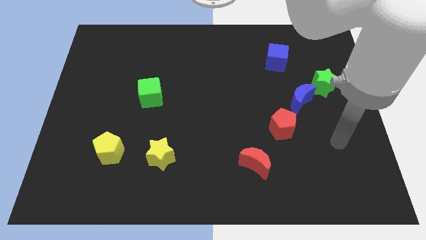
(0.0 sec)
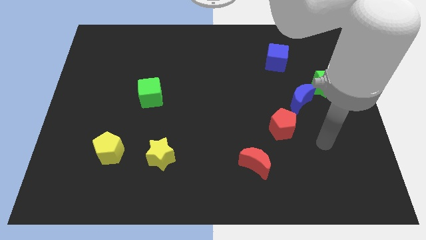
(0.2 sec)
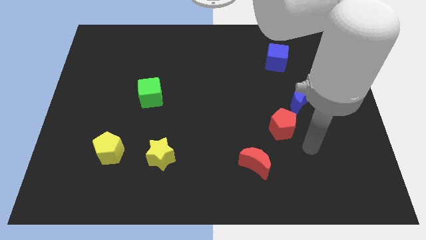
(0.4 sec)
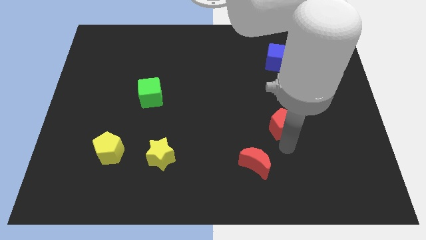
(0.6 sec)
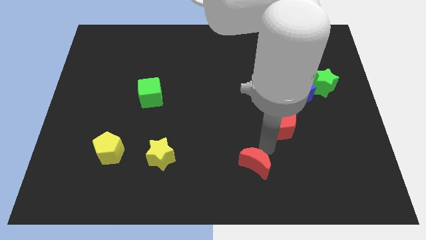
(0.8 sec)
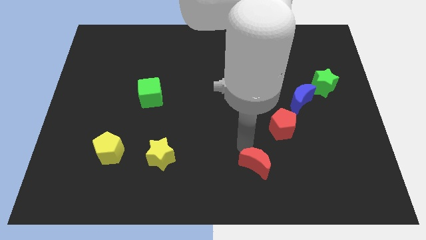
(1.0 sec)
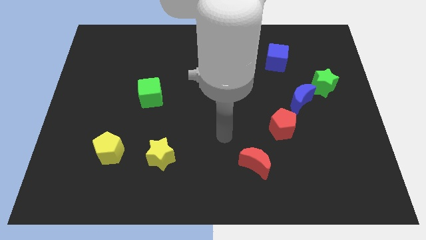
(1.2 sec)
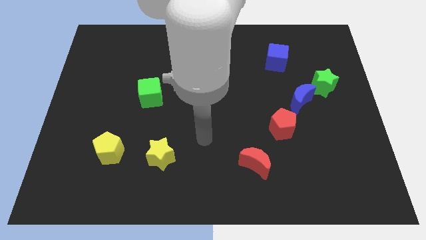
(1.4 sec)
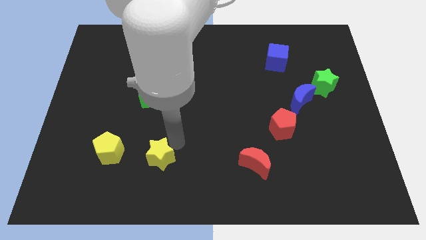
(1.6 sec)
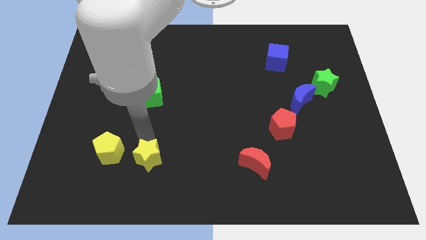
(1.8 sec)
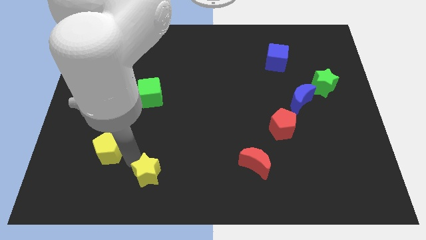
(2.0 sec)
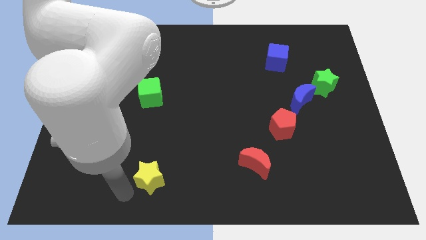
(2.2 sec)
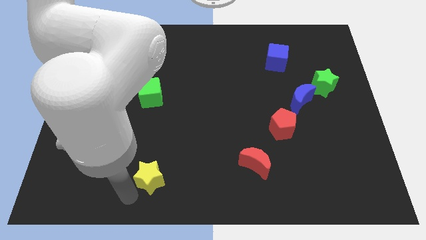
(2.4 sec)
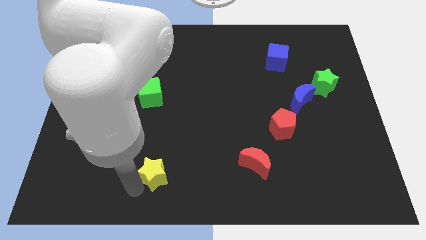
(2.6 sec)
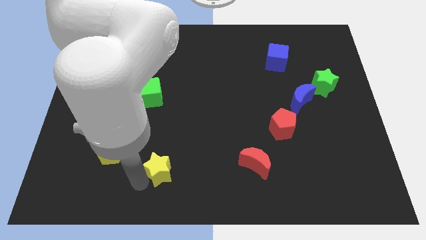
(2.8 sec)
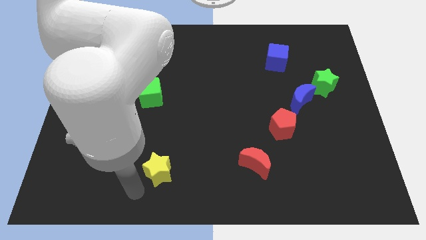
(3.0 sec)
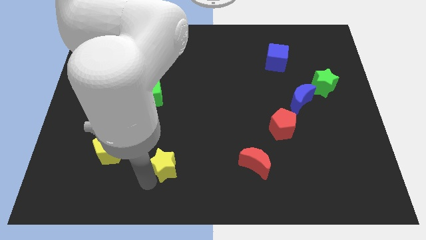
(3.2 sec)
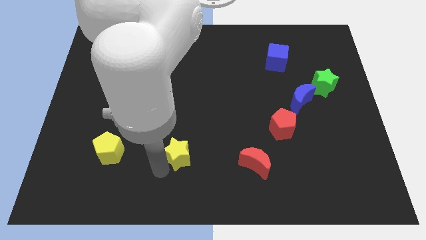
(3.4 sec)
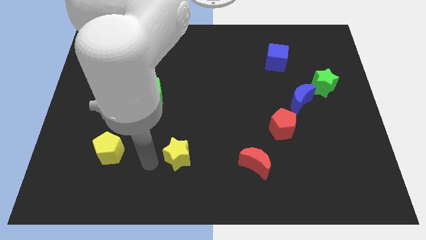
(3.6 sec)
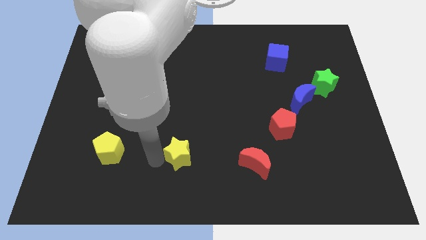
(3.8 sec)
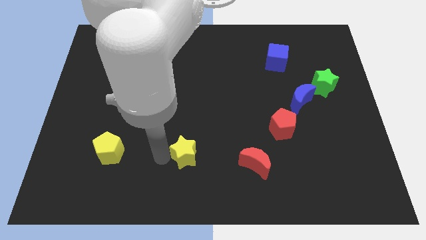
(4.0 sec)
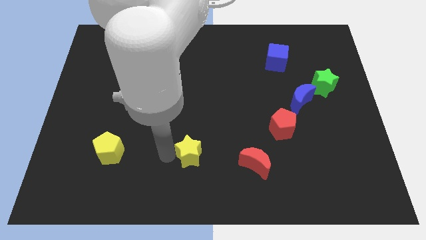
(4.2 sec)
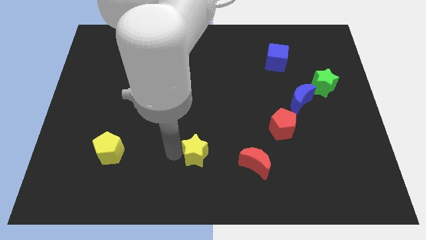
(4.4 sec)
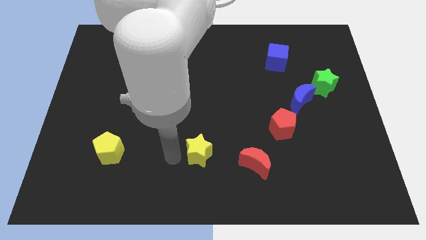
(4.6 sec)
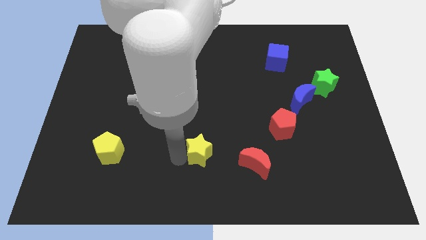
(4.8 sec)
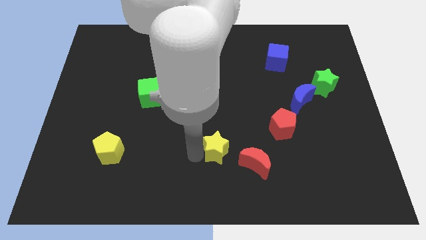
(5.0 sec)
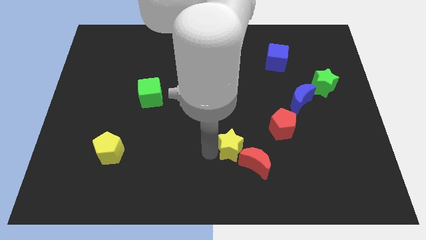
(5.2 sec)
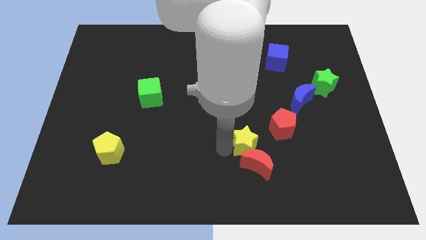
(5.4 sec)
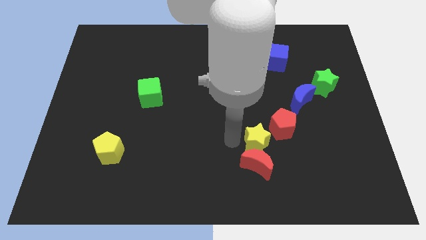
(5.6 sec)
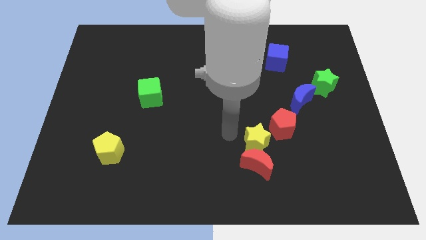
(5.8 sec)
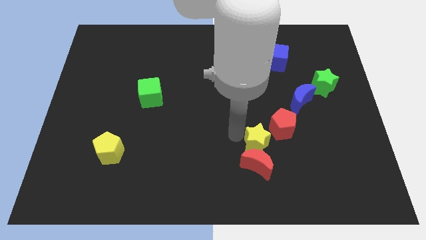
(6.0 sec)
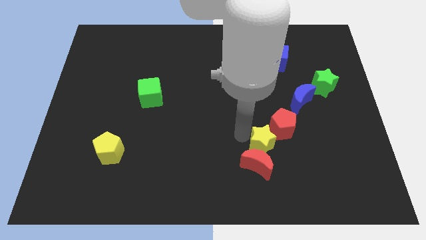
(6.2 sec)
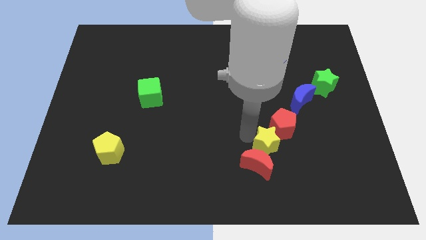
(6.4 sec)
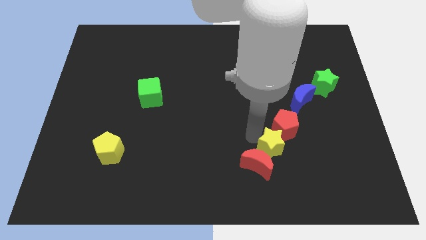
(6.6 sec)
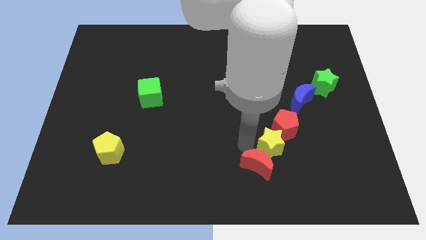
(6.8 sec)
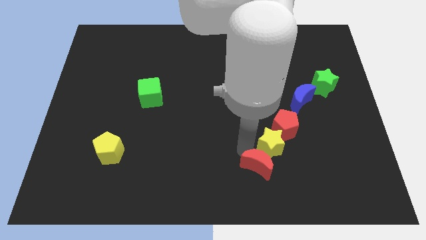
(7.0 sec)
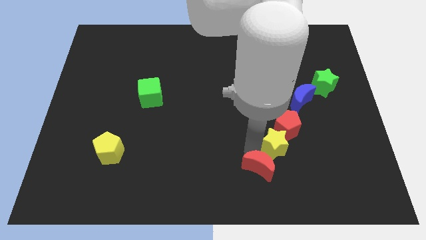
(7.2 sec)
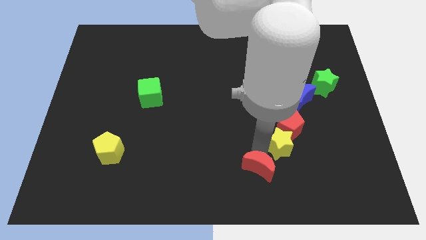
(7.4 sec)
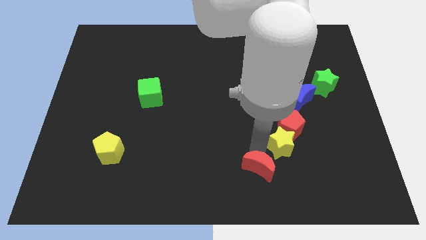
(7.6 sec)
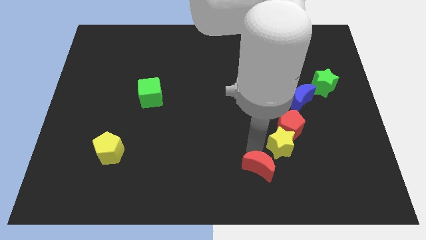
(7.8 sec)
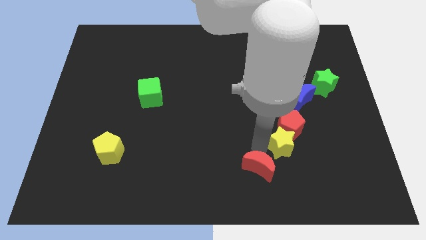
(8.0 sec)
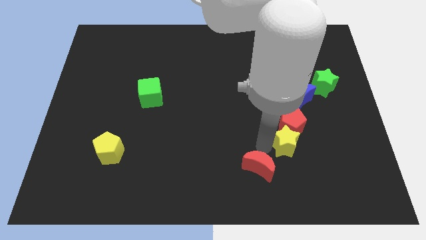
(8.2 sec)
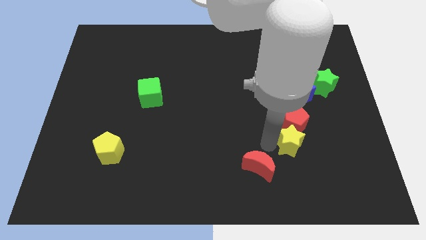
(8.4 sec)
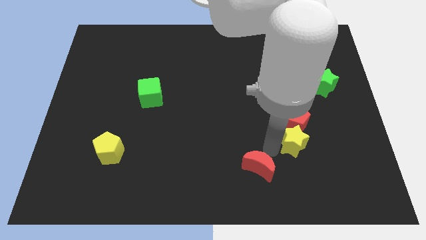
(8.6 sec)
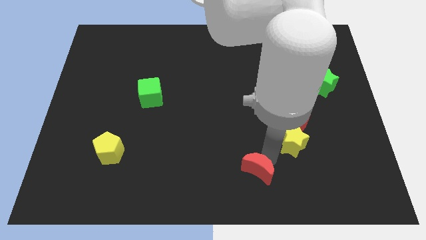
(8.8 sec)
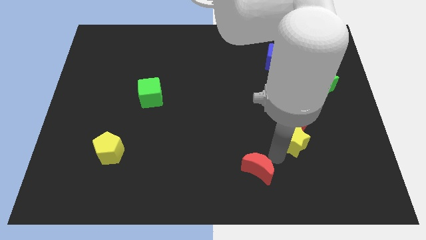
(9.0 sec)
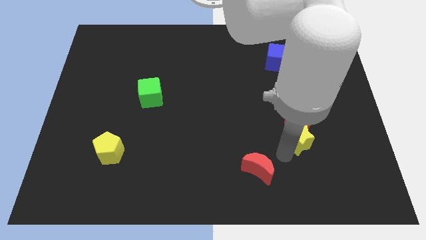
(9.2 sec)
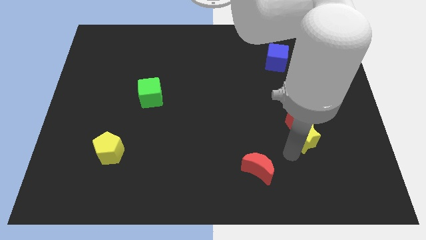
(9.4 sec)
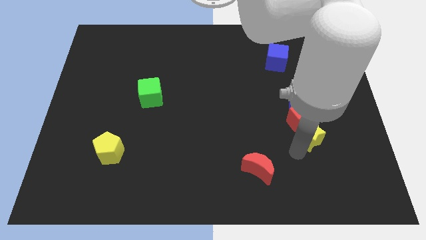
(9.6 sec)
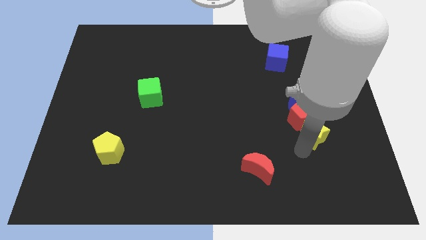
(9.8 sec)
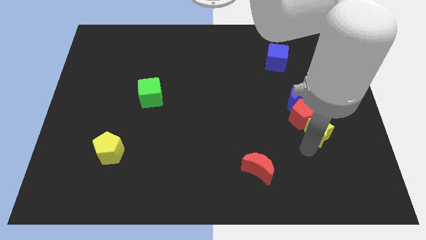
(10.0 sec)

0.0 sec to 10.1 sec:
slide the yellow star to the bottom of the green star

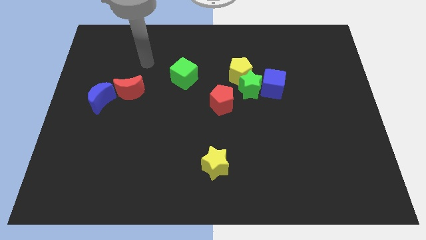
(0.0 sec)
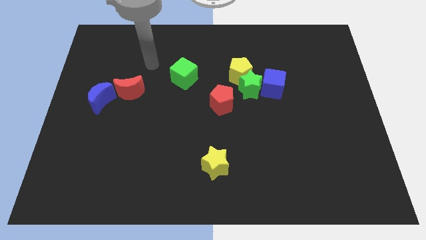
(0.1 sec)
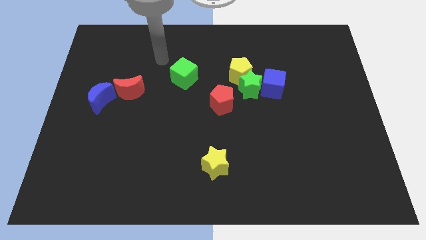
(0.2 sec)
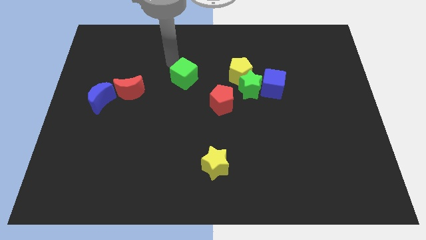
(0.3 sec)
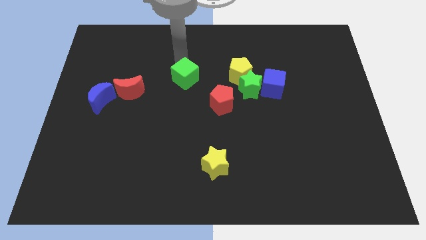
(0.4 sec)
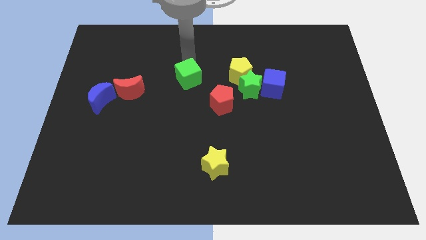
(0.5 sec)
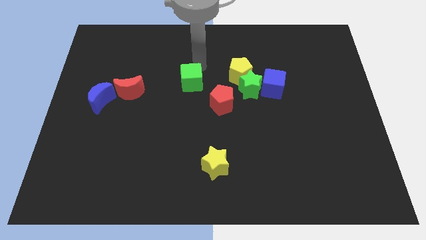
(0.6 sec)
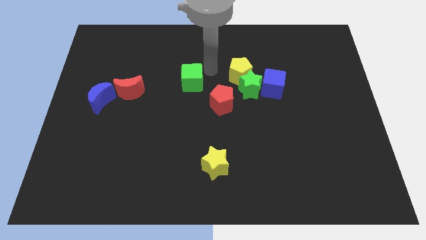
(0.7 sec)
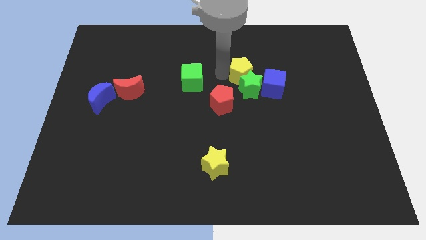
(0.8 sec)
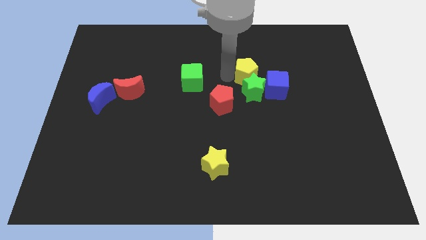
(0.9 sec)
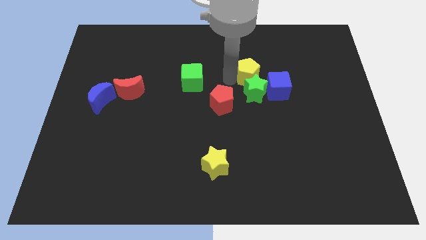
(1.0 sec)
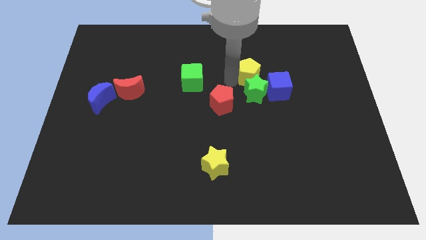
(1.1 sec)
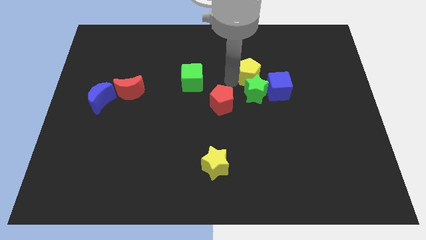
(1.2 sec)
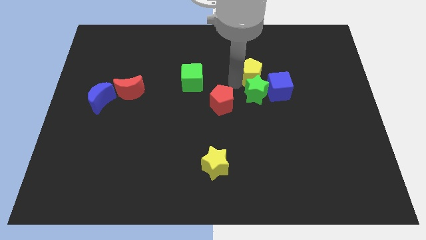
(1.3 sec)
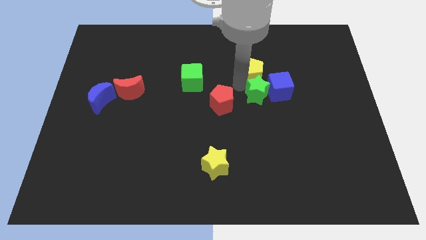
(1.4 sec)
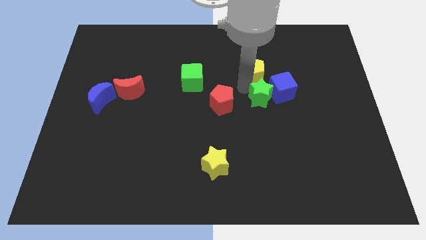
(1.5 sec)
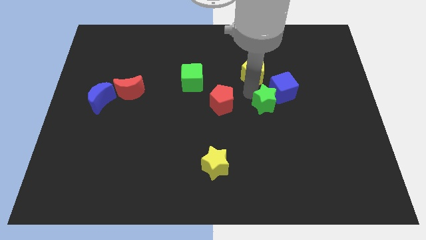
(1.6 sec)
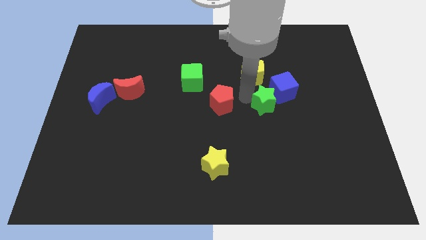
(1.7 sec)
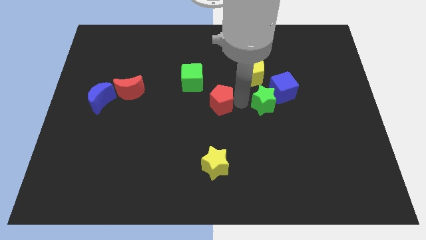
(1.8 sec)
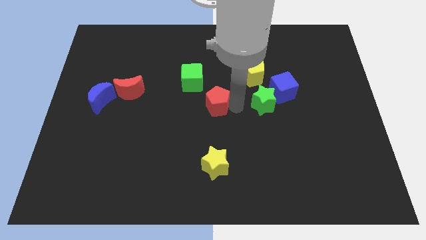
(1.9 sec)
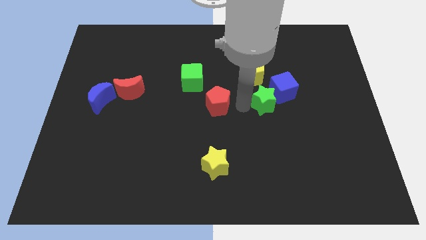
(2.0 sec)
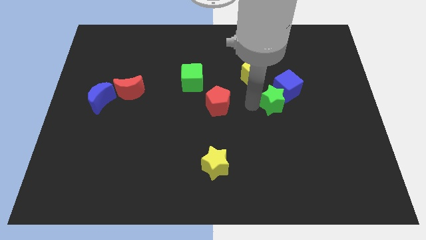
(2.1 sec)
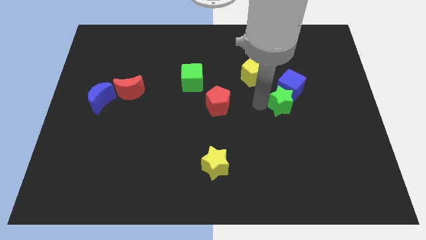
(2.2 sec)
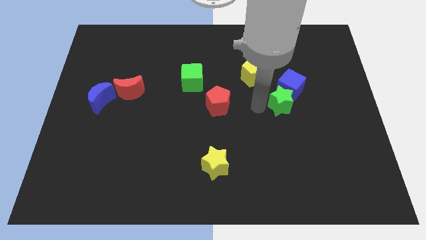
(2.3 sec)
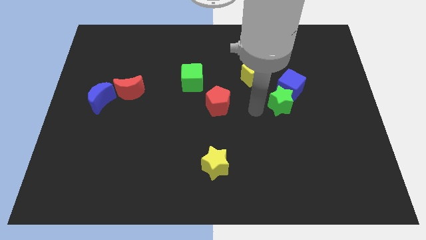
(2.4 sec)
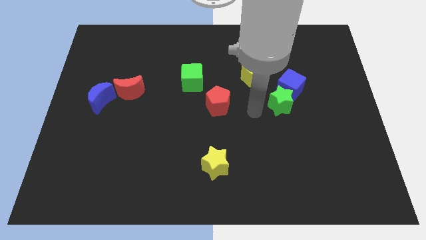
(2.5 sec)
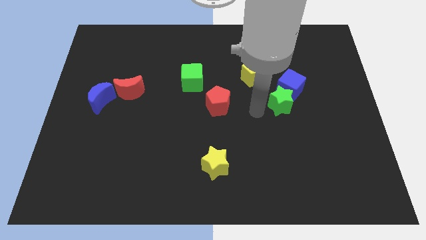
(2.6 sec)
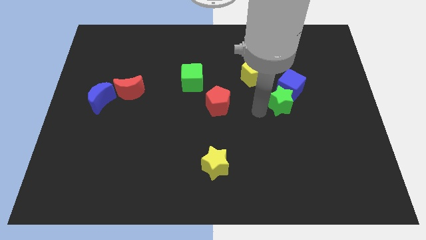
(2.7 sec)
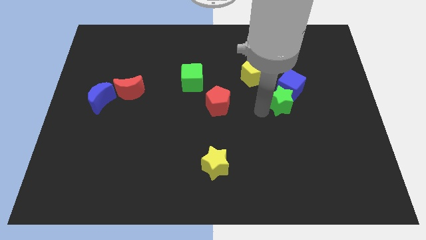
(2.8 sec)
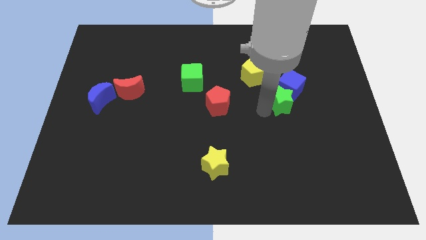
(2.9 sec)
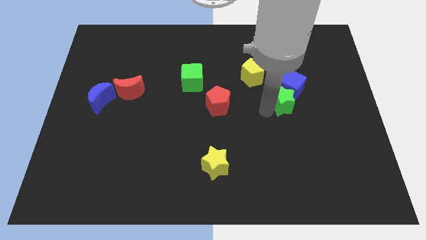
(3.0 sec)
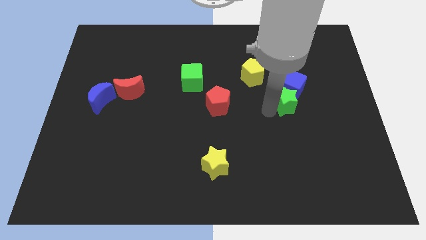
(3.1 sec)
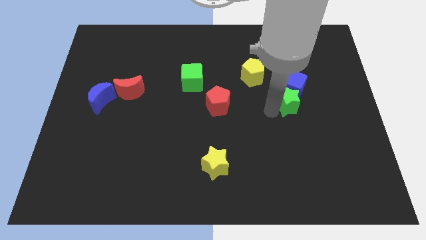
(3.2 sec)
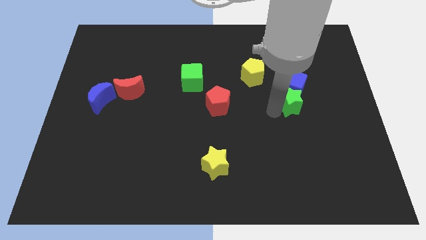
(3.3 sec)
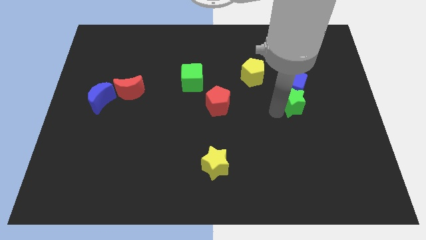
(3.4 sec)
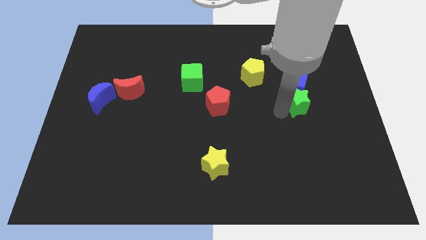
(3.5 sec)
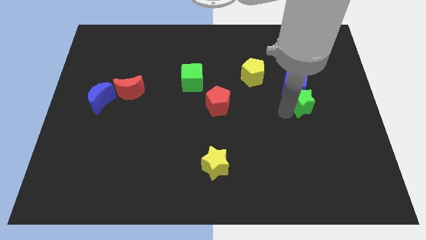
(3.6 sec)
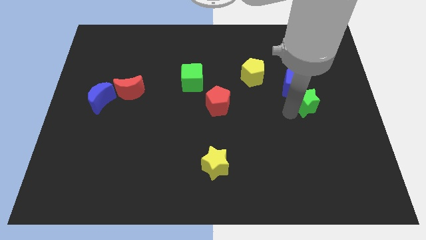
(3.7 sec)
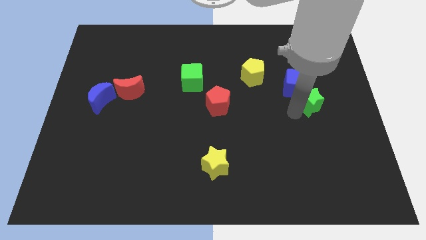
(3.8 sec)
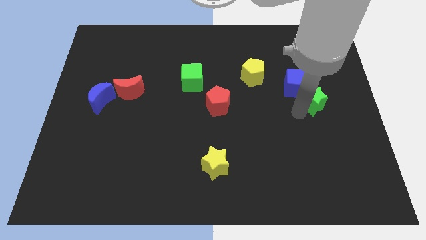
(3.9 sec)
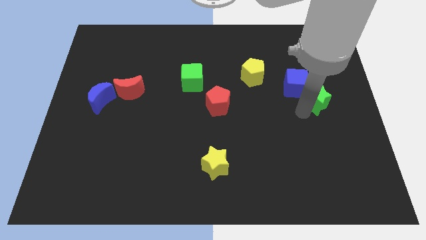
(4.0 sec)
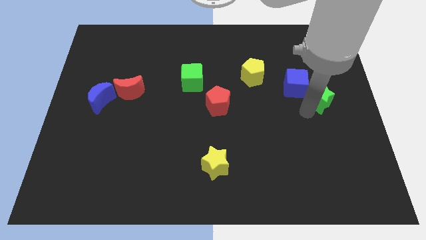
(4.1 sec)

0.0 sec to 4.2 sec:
put the green star to the right of the blue cube
